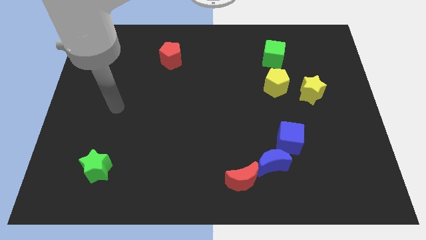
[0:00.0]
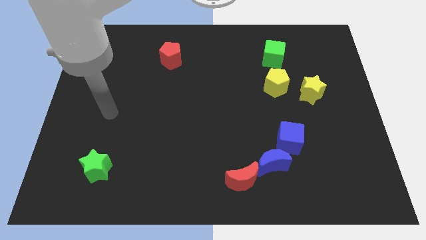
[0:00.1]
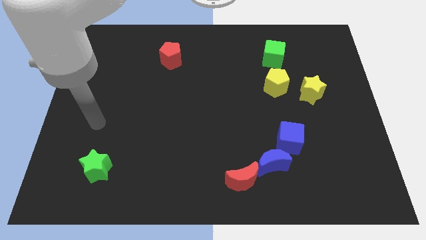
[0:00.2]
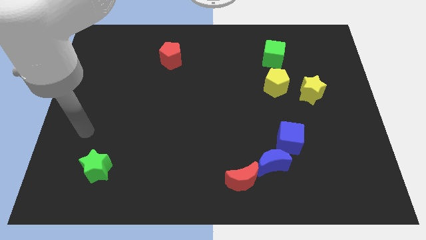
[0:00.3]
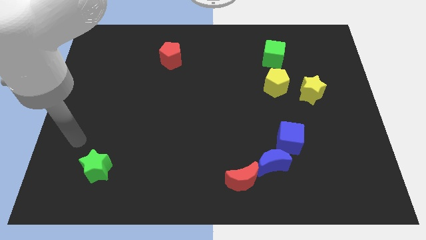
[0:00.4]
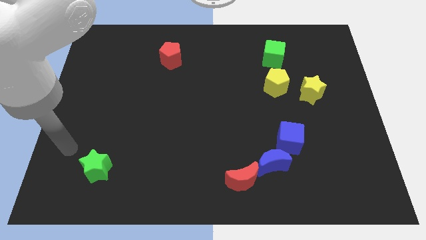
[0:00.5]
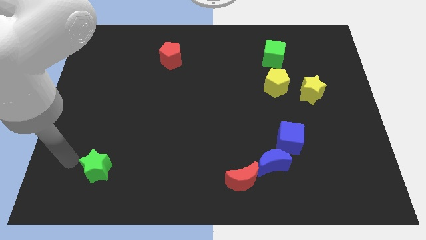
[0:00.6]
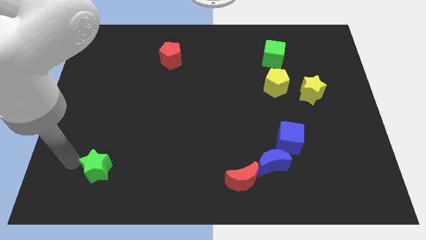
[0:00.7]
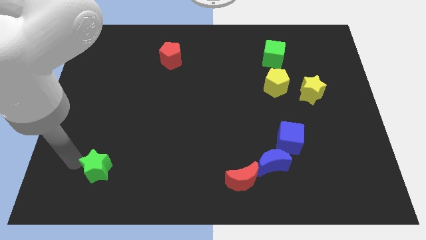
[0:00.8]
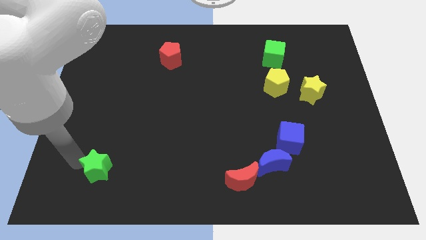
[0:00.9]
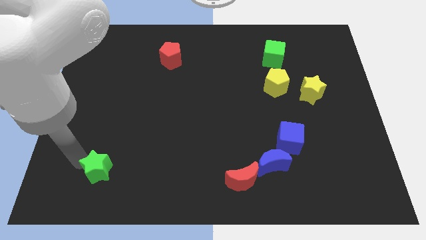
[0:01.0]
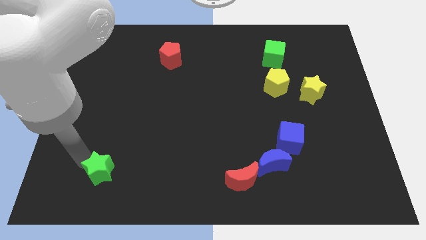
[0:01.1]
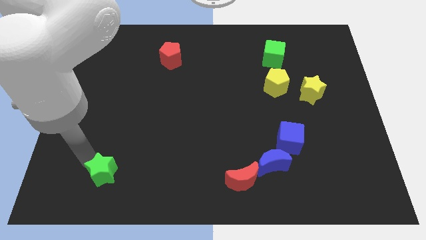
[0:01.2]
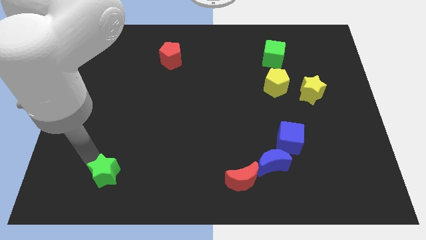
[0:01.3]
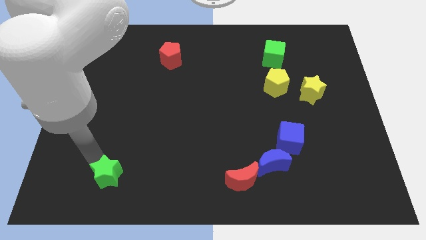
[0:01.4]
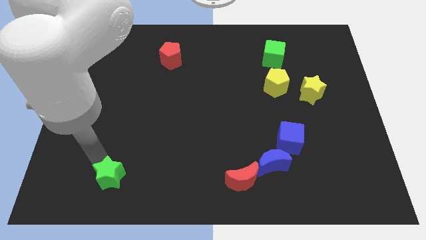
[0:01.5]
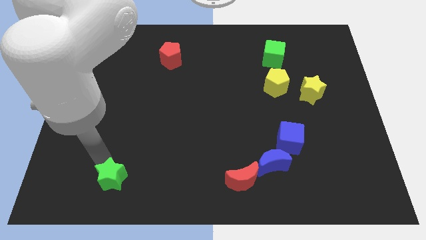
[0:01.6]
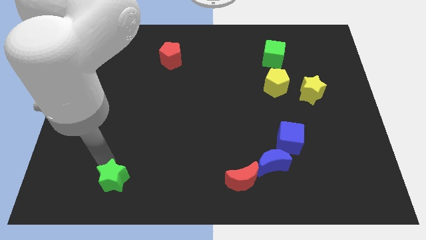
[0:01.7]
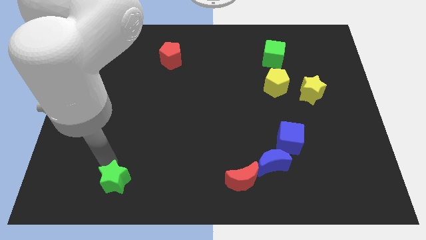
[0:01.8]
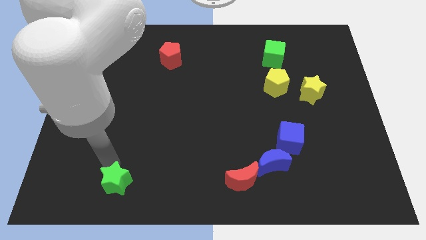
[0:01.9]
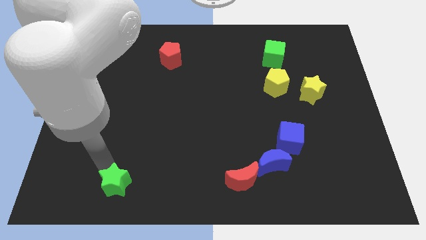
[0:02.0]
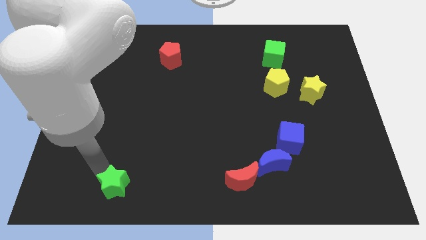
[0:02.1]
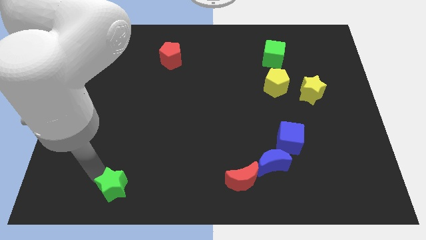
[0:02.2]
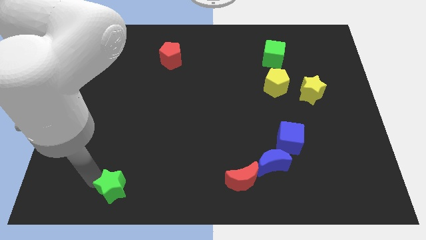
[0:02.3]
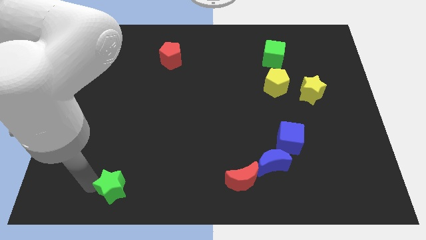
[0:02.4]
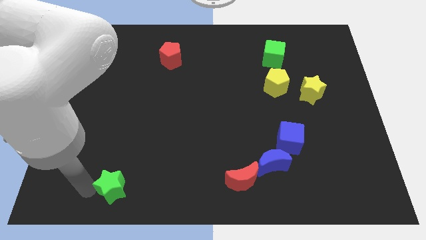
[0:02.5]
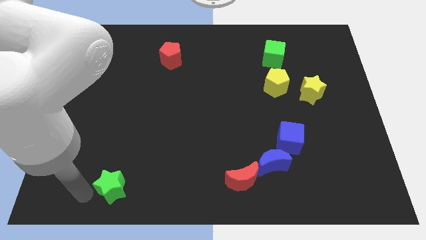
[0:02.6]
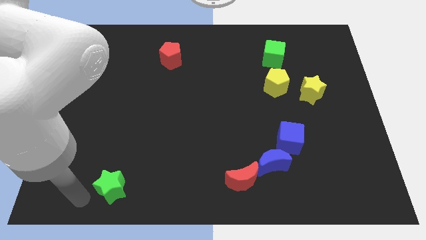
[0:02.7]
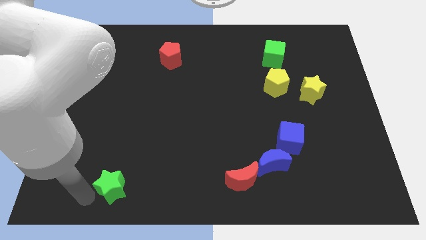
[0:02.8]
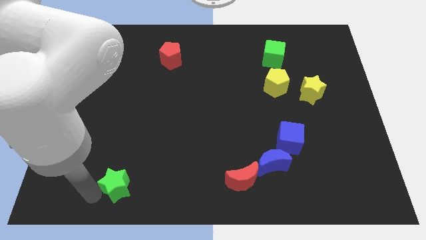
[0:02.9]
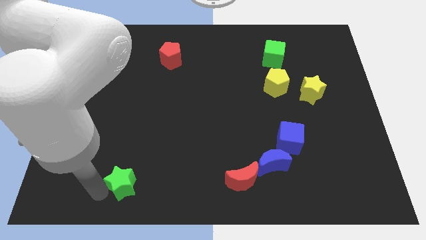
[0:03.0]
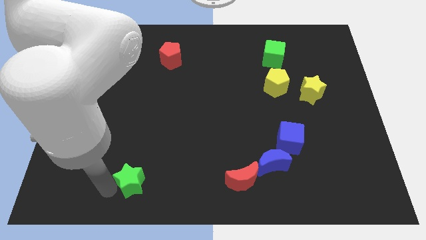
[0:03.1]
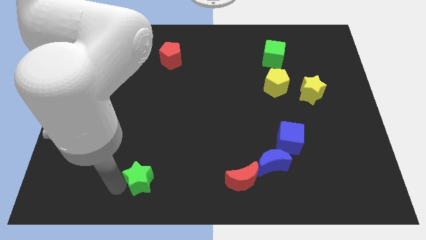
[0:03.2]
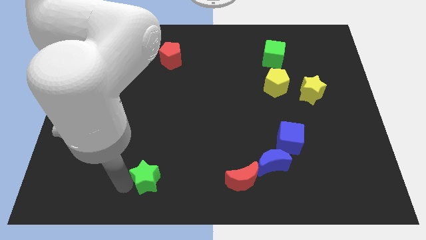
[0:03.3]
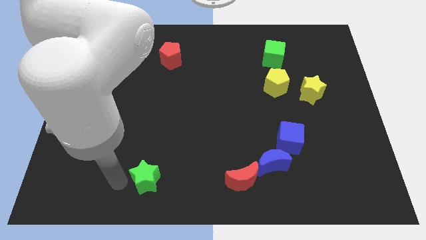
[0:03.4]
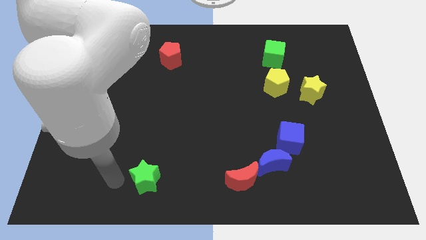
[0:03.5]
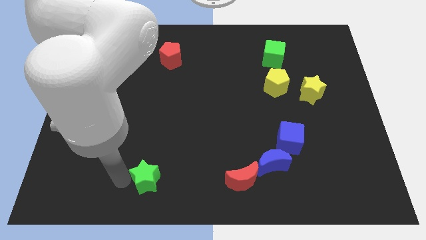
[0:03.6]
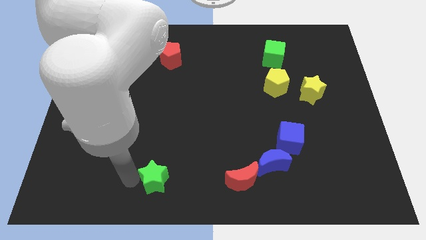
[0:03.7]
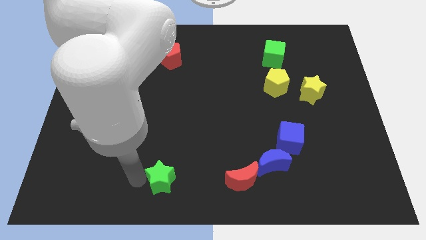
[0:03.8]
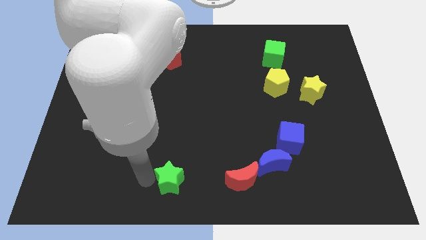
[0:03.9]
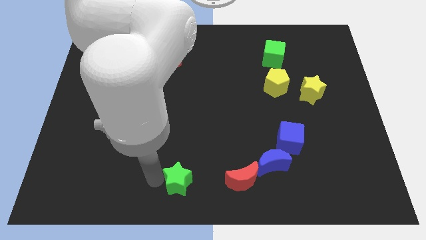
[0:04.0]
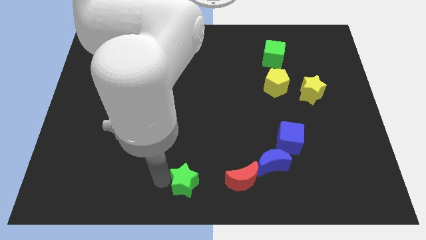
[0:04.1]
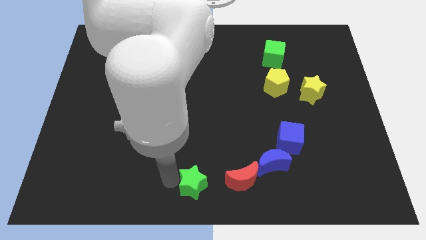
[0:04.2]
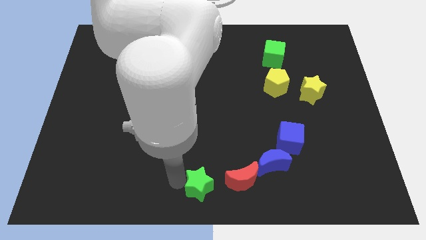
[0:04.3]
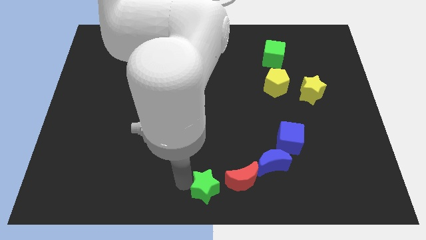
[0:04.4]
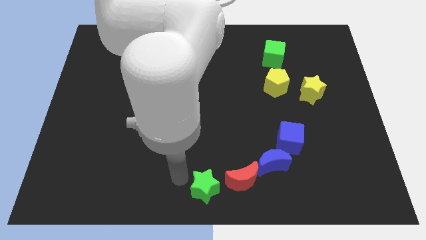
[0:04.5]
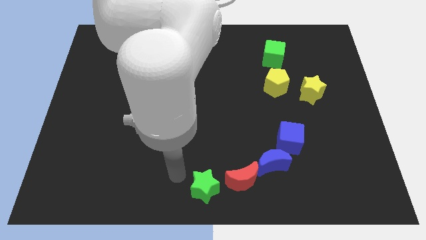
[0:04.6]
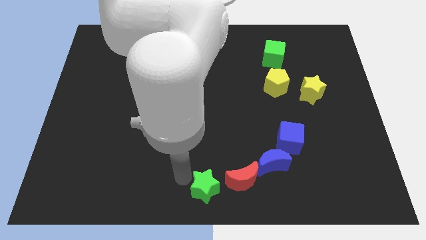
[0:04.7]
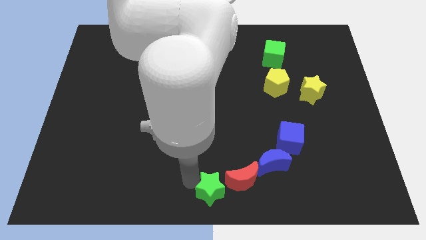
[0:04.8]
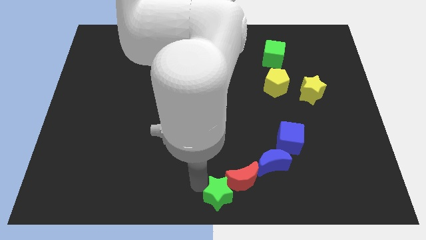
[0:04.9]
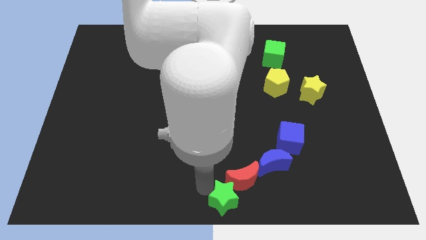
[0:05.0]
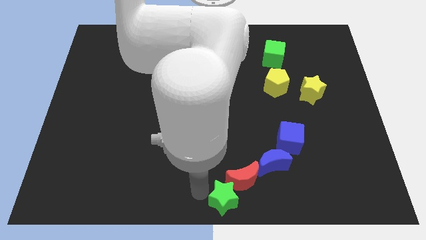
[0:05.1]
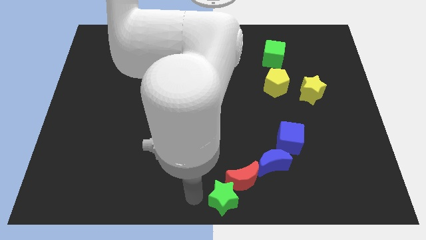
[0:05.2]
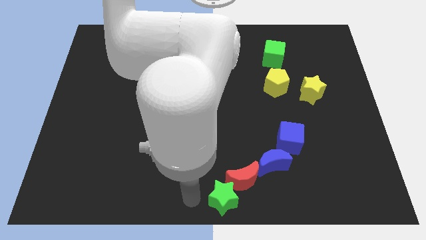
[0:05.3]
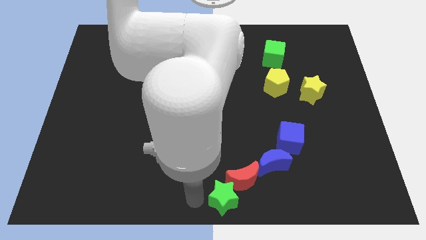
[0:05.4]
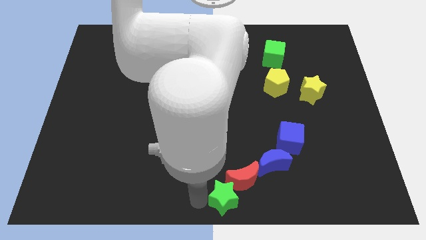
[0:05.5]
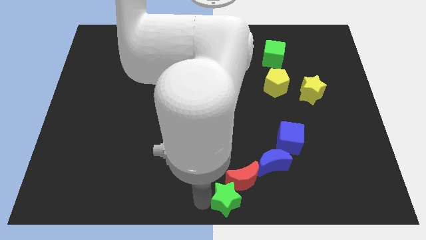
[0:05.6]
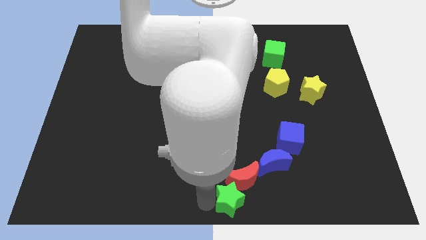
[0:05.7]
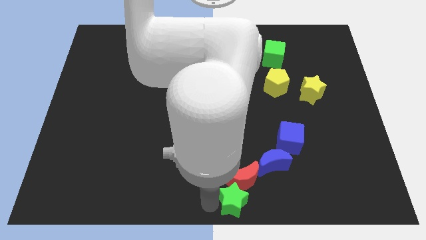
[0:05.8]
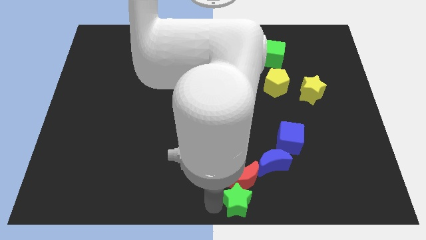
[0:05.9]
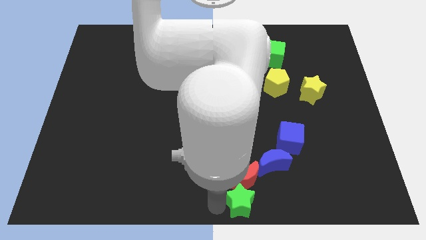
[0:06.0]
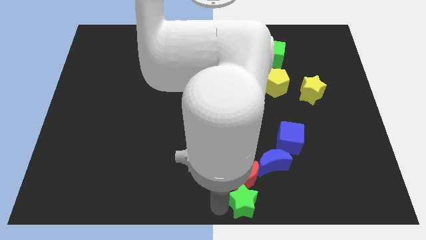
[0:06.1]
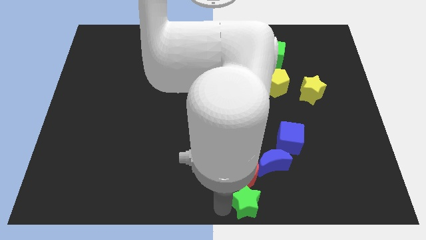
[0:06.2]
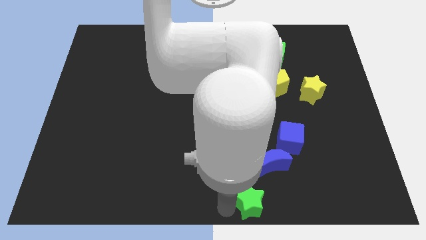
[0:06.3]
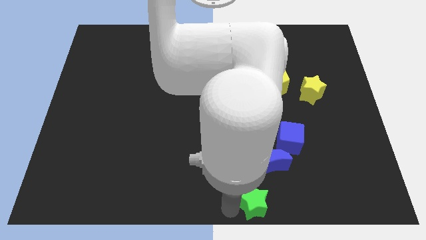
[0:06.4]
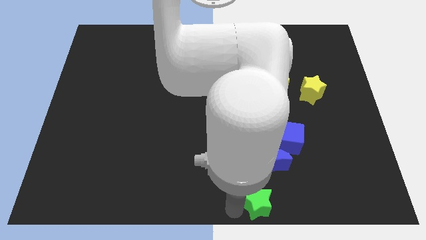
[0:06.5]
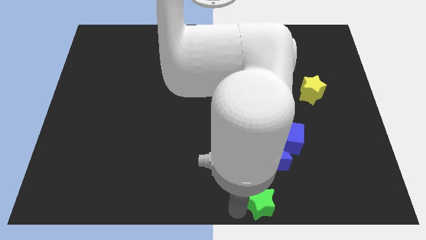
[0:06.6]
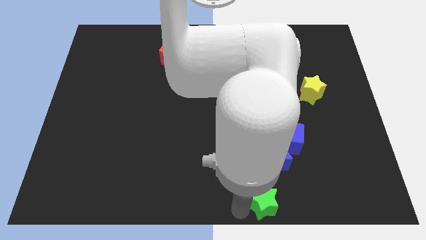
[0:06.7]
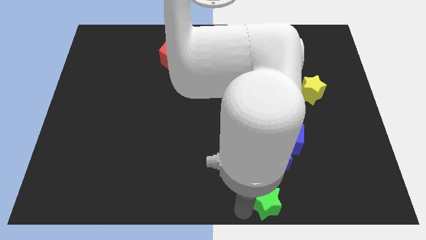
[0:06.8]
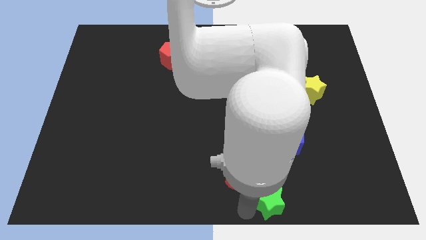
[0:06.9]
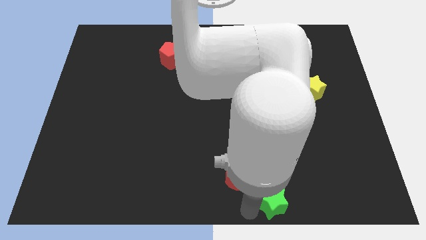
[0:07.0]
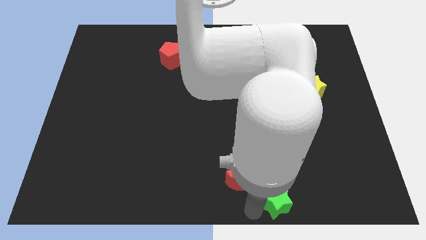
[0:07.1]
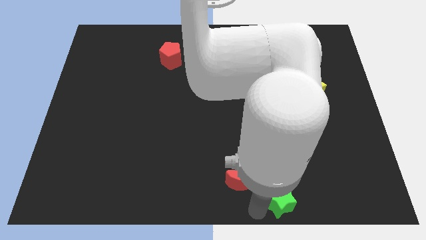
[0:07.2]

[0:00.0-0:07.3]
slide the green star to the bottom side of the blue cube
